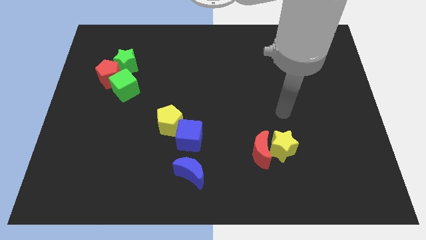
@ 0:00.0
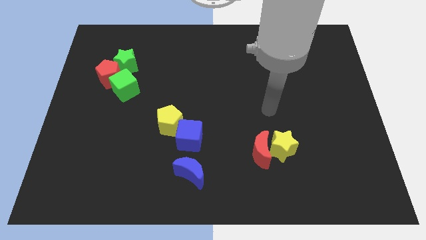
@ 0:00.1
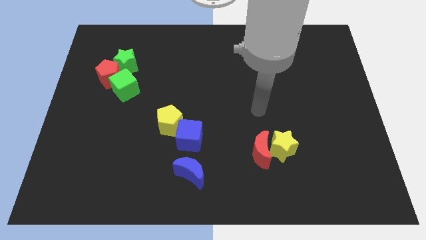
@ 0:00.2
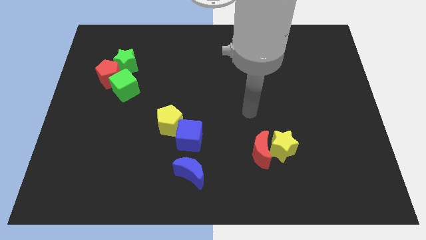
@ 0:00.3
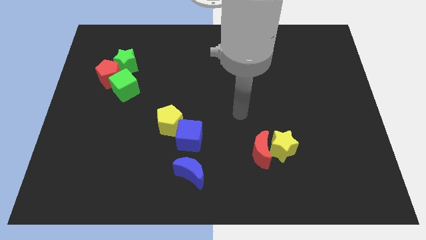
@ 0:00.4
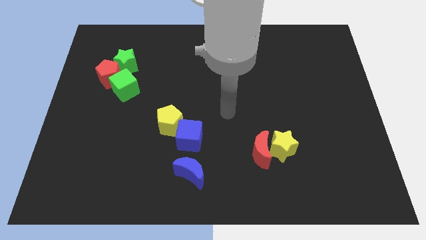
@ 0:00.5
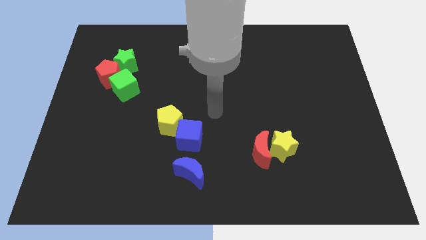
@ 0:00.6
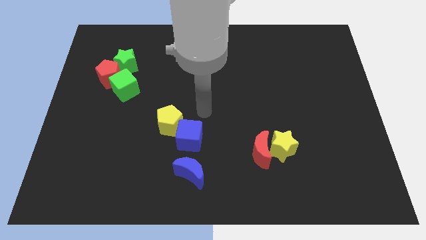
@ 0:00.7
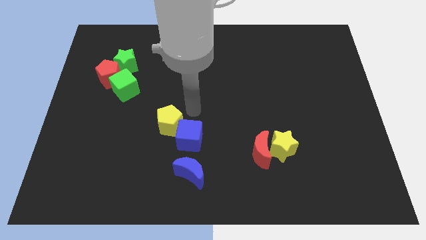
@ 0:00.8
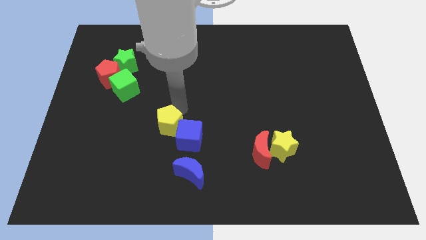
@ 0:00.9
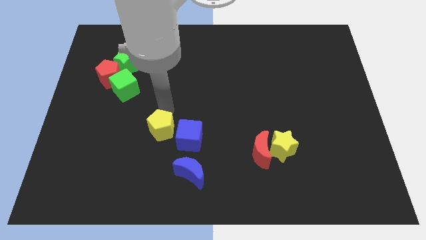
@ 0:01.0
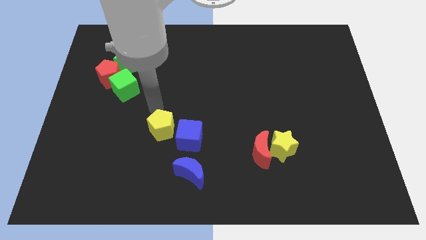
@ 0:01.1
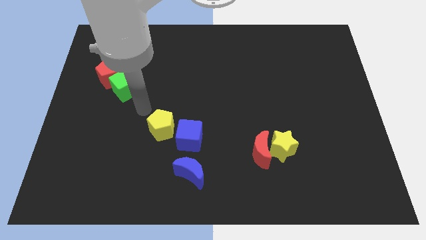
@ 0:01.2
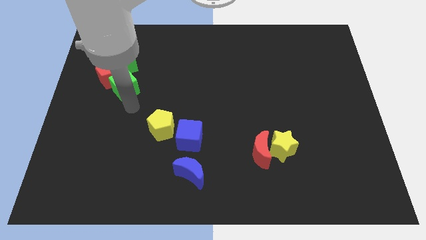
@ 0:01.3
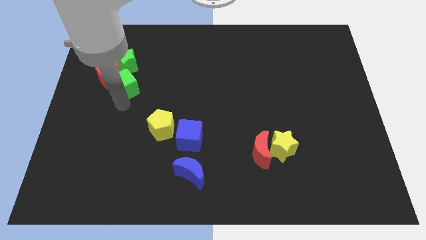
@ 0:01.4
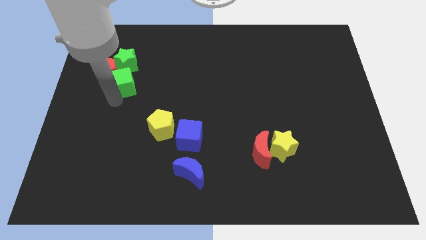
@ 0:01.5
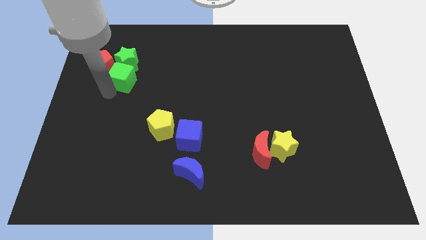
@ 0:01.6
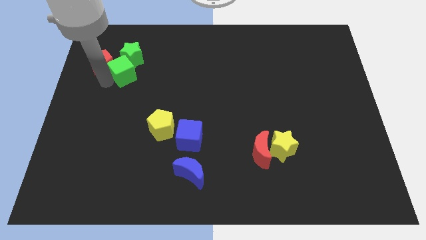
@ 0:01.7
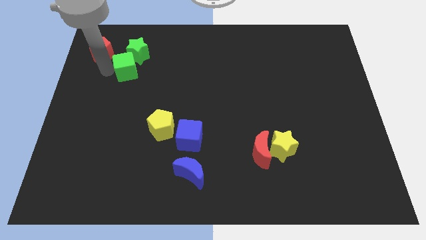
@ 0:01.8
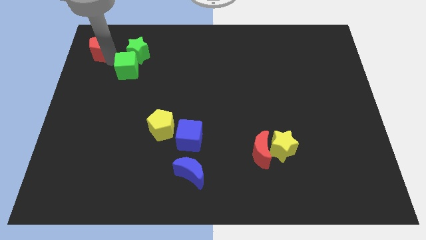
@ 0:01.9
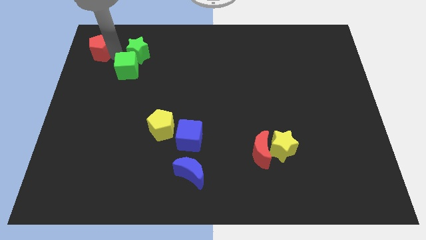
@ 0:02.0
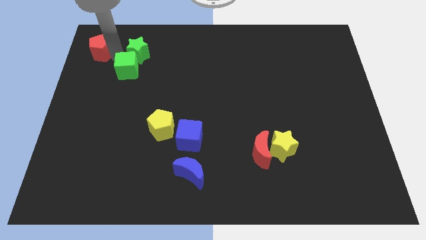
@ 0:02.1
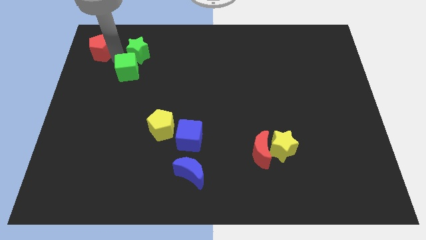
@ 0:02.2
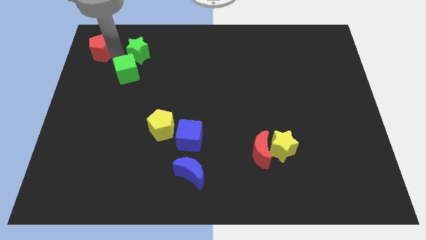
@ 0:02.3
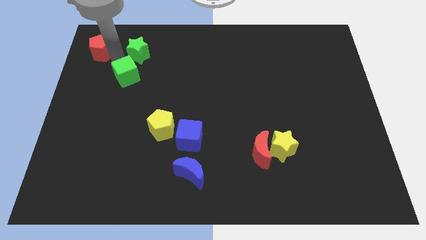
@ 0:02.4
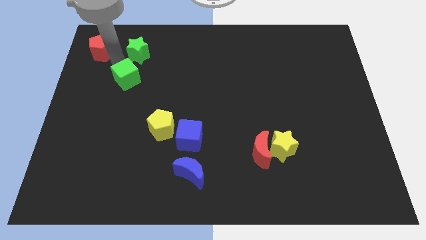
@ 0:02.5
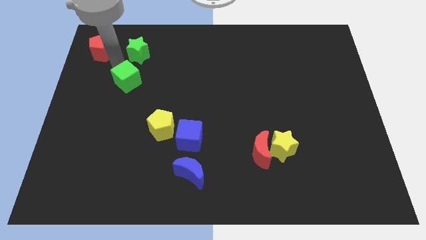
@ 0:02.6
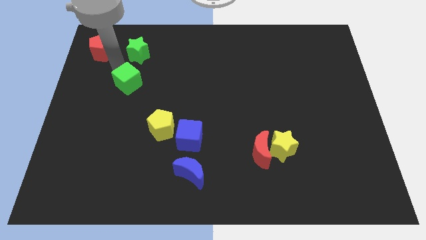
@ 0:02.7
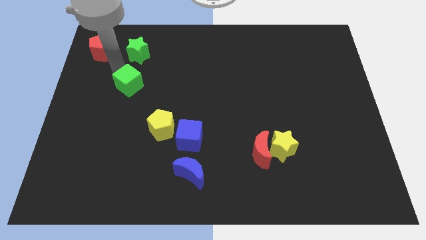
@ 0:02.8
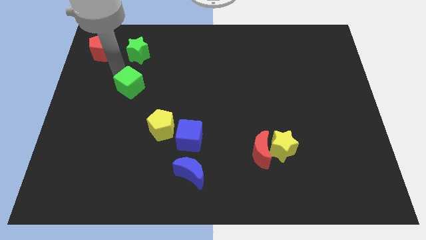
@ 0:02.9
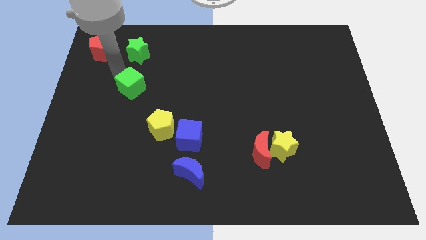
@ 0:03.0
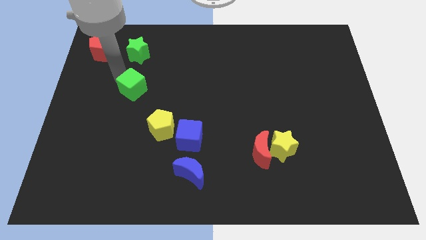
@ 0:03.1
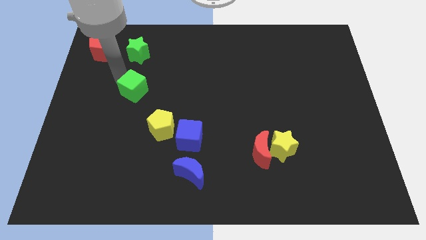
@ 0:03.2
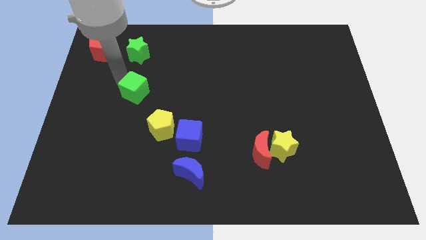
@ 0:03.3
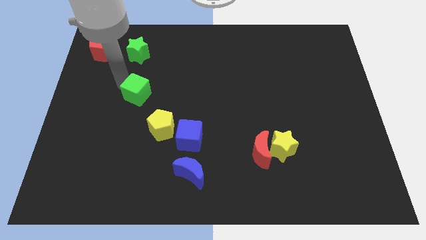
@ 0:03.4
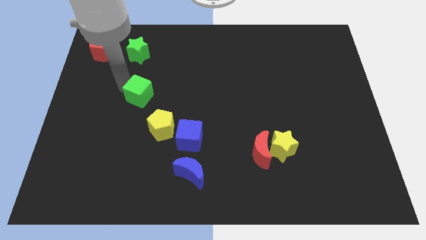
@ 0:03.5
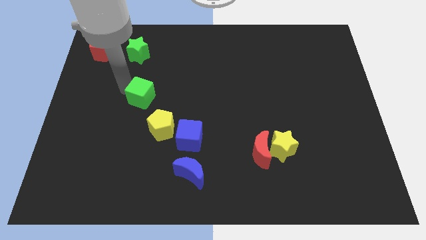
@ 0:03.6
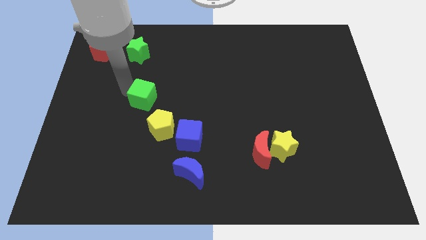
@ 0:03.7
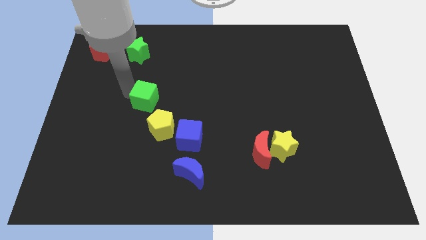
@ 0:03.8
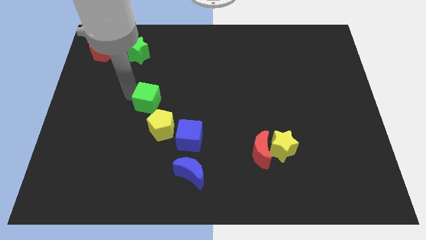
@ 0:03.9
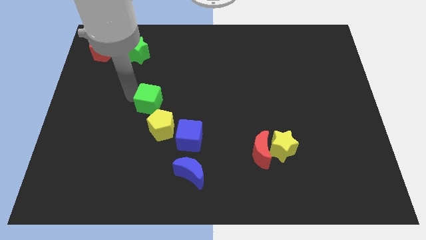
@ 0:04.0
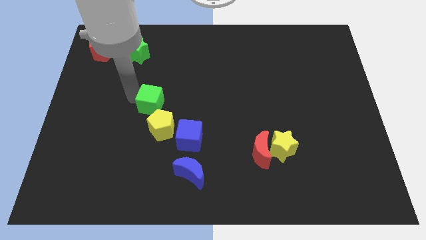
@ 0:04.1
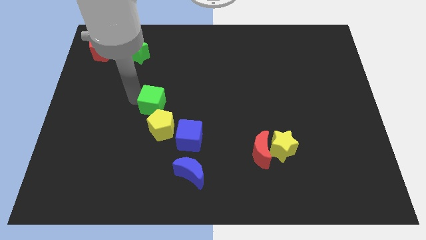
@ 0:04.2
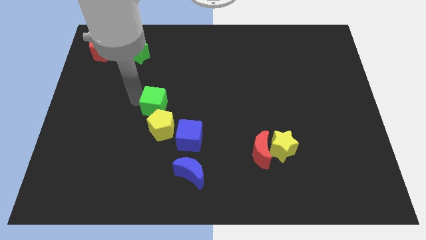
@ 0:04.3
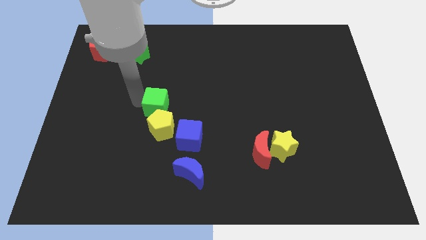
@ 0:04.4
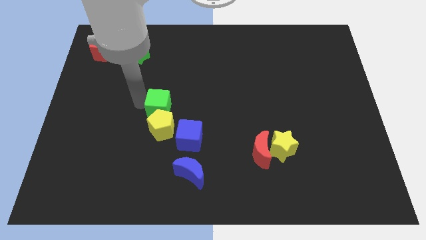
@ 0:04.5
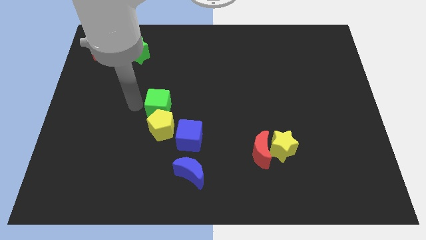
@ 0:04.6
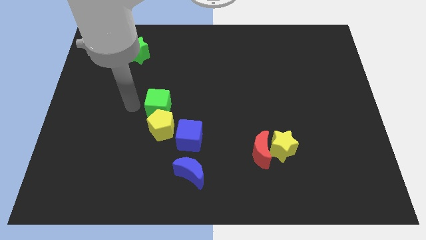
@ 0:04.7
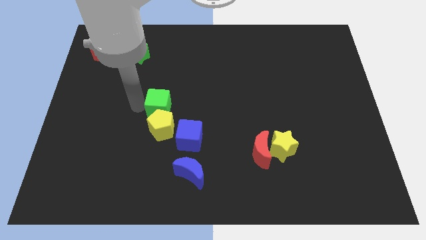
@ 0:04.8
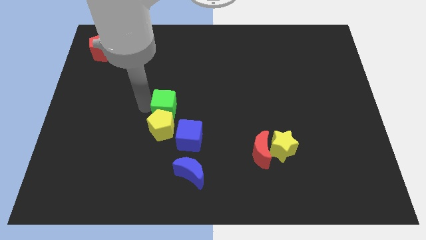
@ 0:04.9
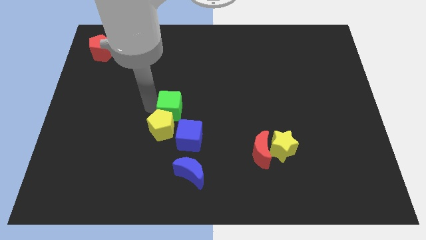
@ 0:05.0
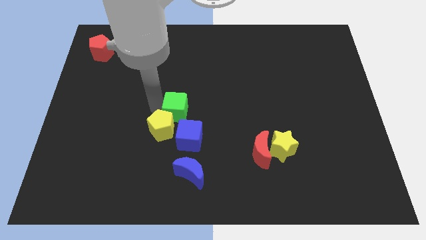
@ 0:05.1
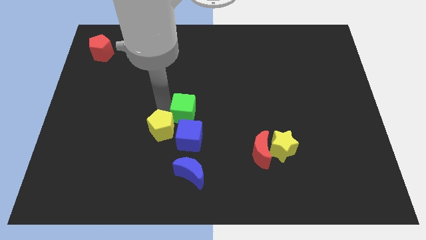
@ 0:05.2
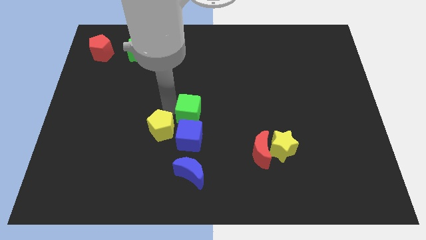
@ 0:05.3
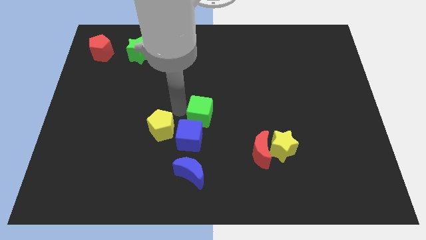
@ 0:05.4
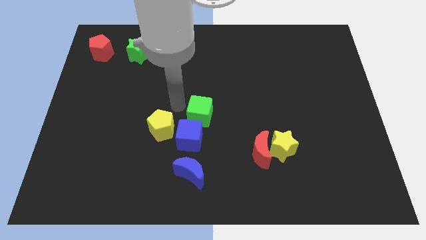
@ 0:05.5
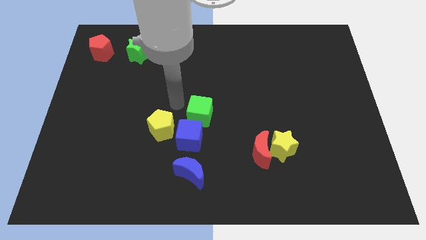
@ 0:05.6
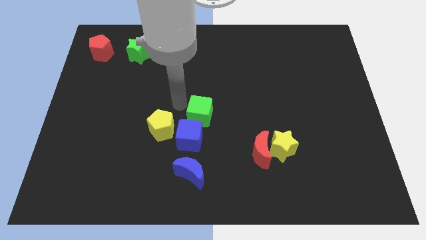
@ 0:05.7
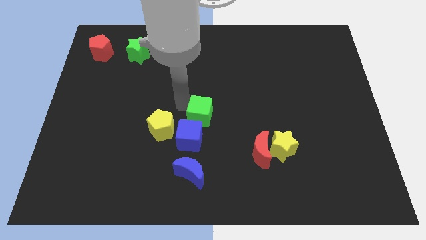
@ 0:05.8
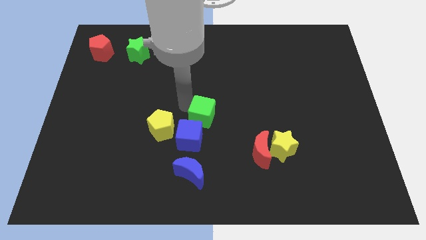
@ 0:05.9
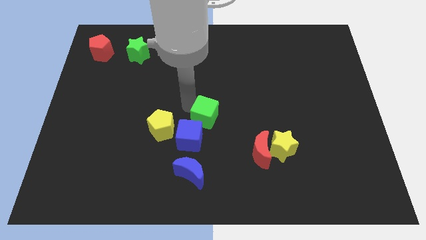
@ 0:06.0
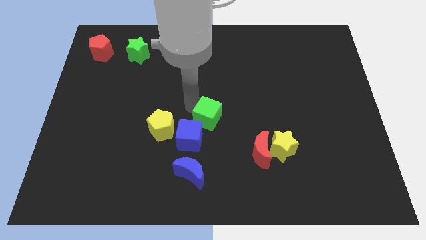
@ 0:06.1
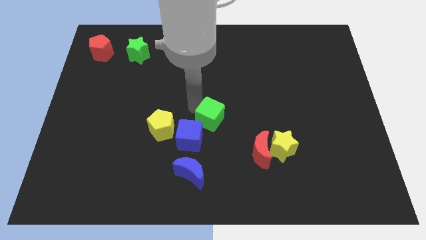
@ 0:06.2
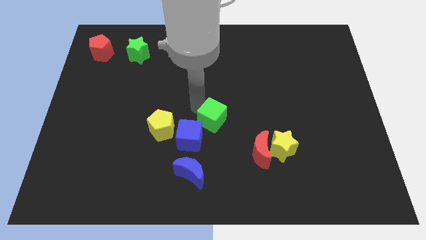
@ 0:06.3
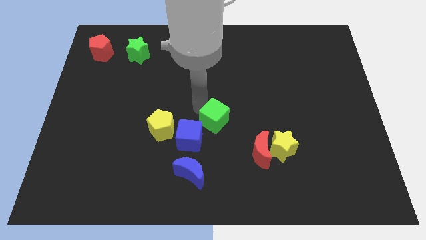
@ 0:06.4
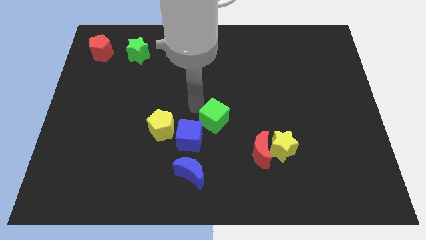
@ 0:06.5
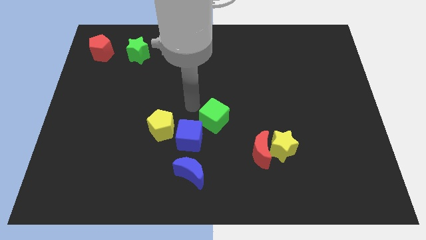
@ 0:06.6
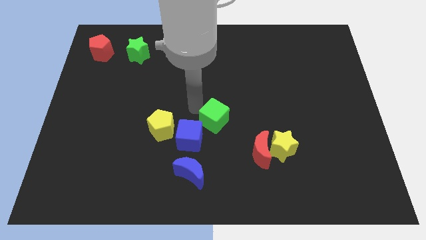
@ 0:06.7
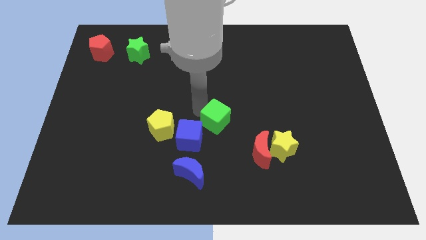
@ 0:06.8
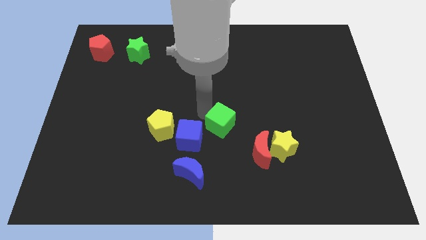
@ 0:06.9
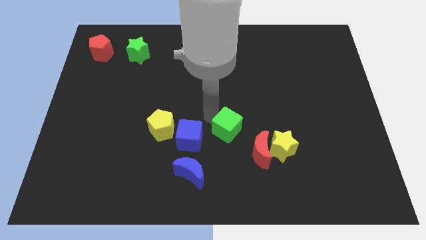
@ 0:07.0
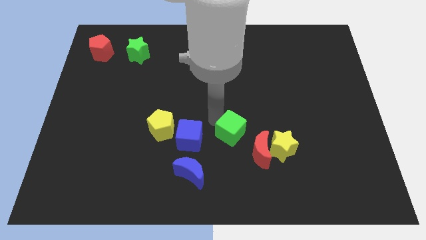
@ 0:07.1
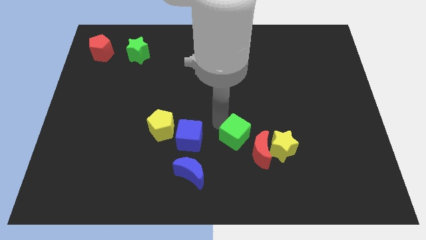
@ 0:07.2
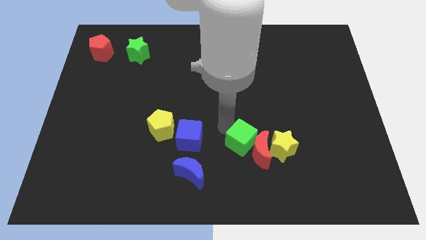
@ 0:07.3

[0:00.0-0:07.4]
move the green cube close to the red moon
